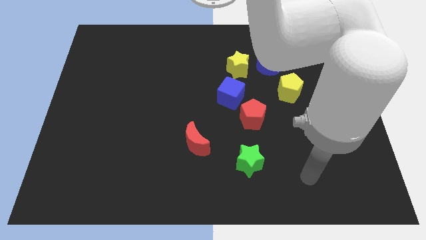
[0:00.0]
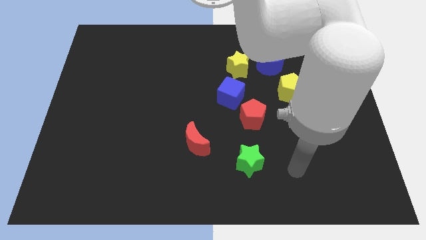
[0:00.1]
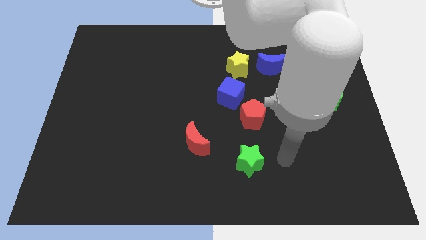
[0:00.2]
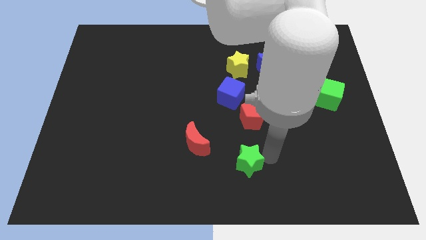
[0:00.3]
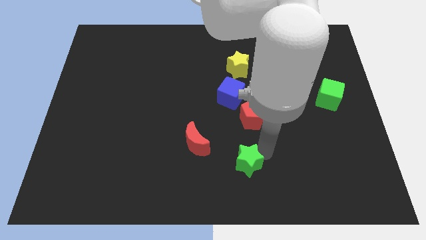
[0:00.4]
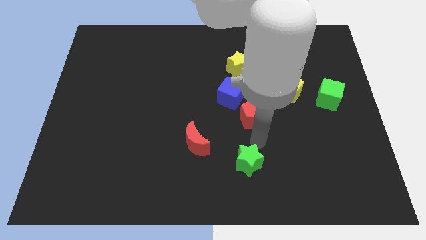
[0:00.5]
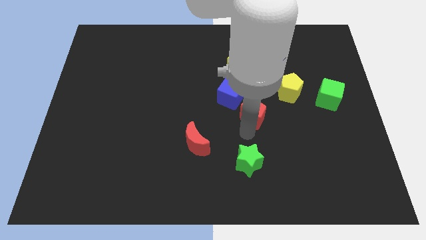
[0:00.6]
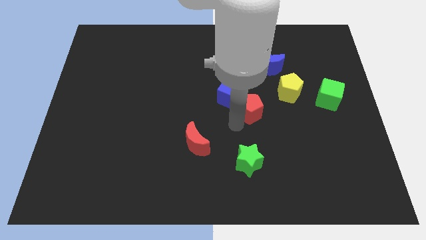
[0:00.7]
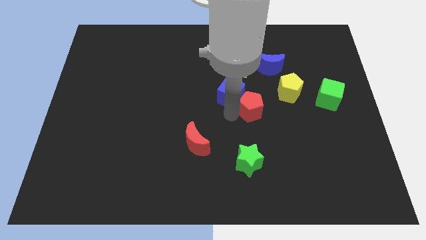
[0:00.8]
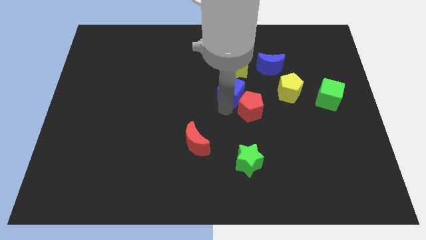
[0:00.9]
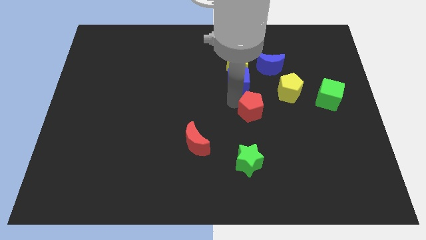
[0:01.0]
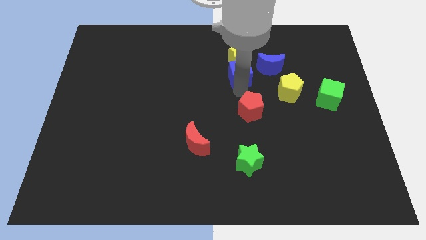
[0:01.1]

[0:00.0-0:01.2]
move the red pentagon away from the blue cube

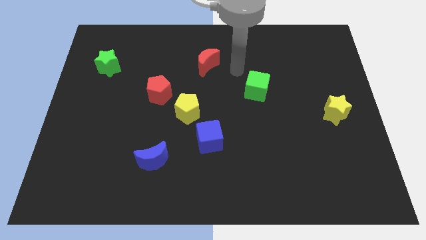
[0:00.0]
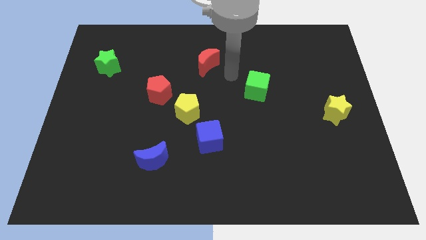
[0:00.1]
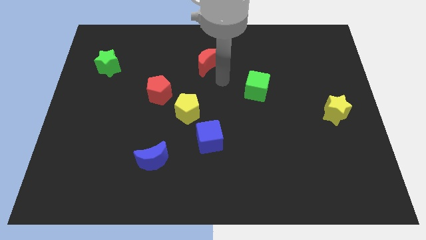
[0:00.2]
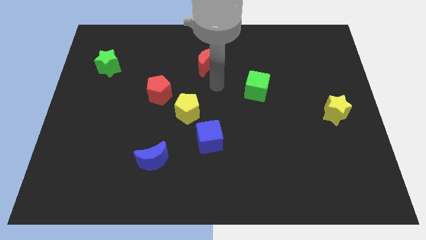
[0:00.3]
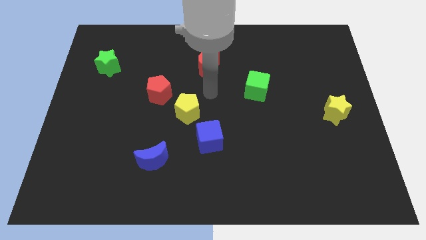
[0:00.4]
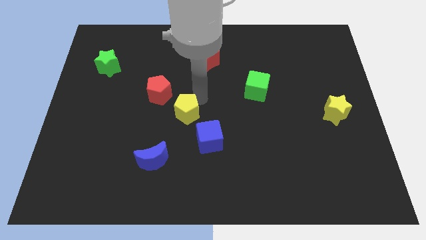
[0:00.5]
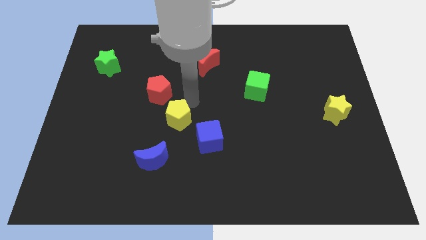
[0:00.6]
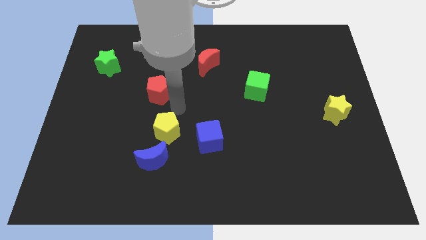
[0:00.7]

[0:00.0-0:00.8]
separate the red pentagon from the yellow pentagon

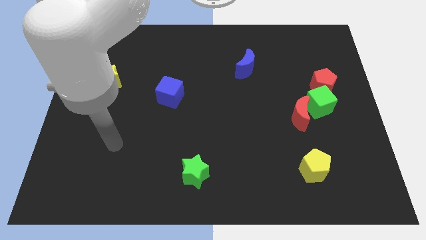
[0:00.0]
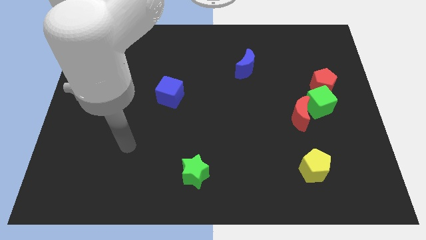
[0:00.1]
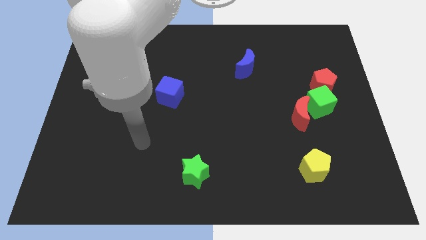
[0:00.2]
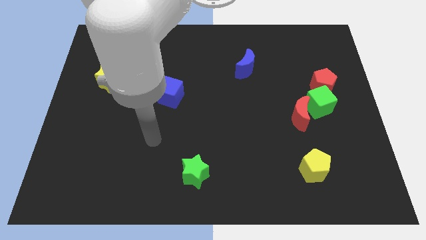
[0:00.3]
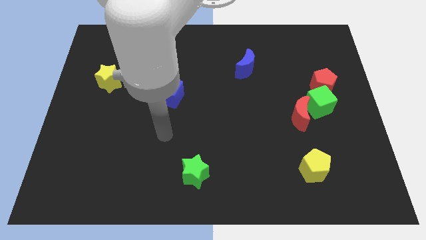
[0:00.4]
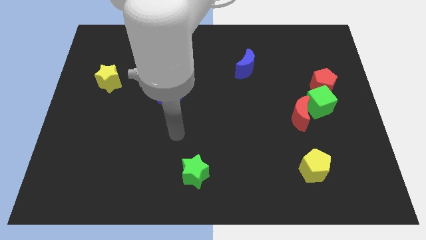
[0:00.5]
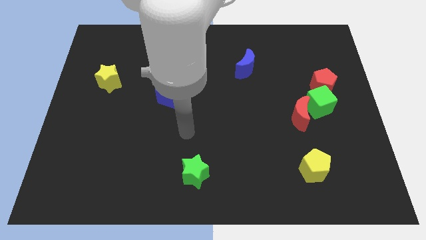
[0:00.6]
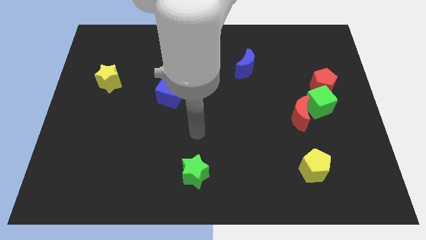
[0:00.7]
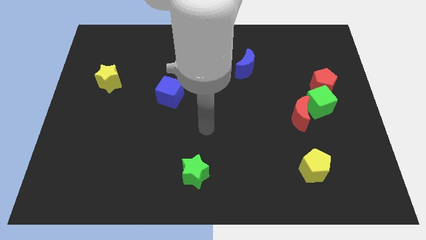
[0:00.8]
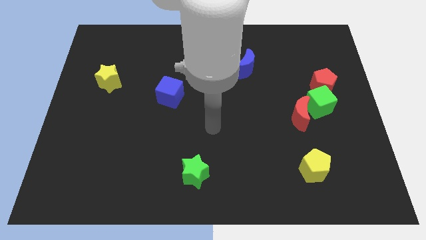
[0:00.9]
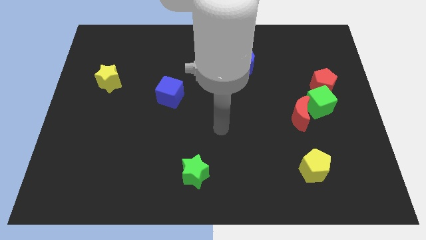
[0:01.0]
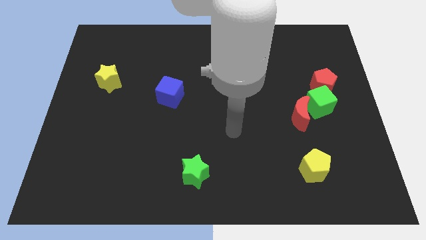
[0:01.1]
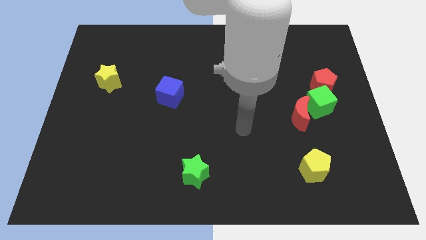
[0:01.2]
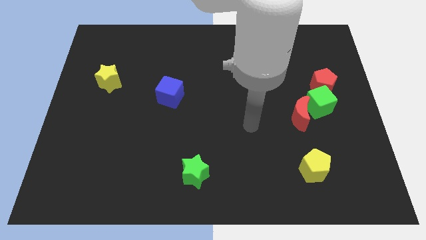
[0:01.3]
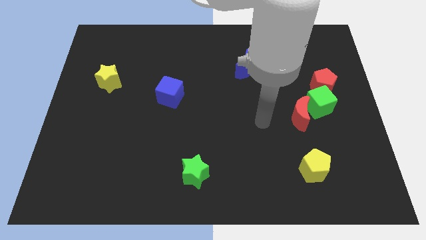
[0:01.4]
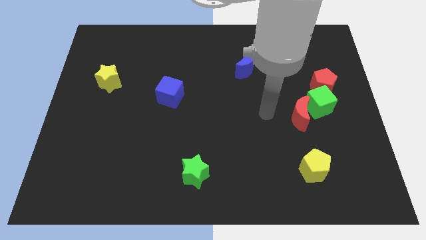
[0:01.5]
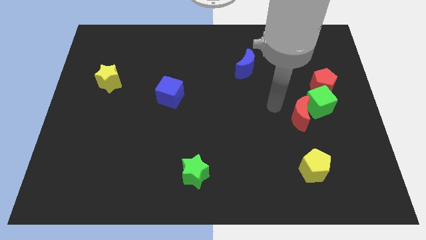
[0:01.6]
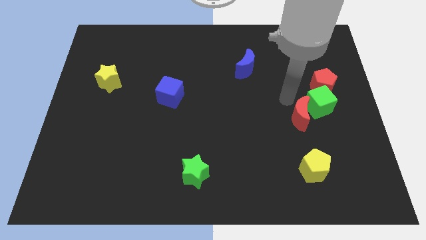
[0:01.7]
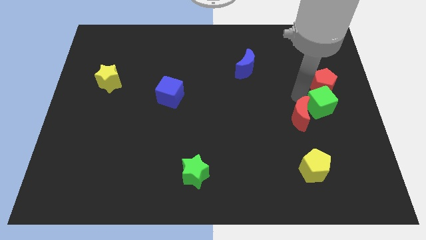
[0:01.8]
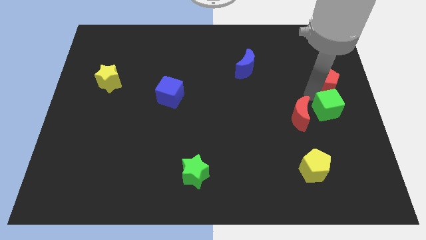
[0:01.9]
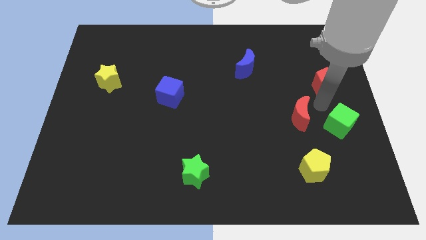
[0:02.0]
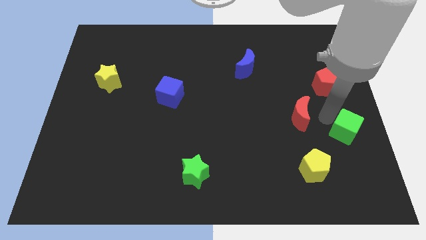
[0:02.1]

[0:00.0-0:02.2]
move the red moon away from the green cube

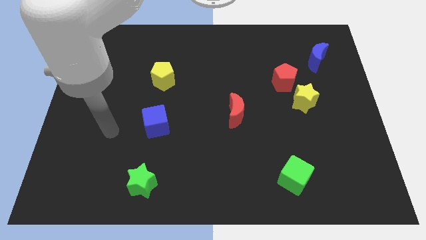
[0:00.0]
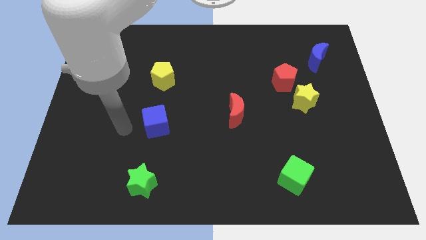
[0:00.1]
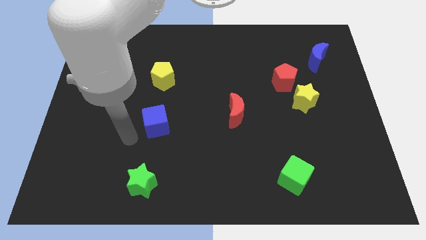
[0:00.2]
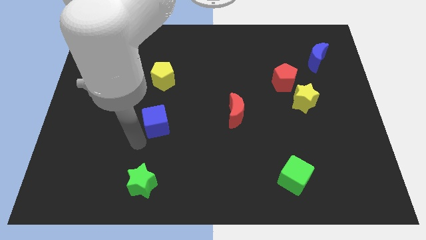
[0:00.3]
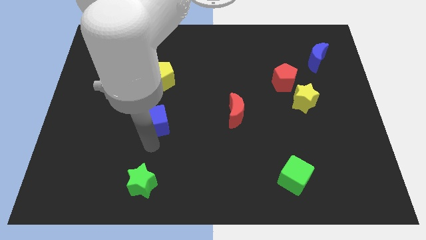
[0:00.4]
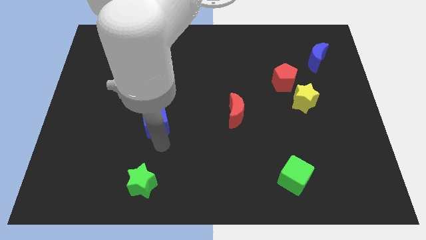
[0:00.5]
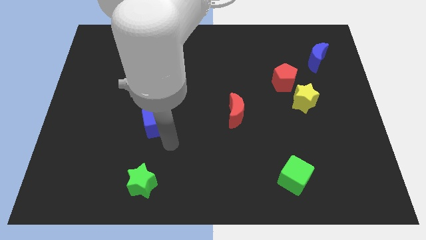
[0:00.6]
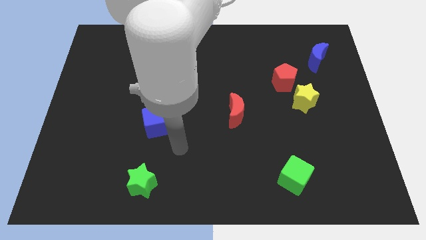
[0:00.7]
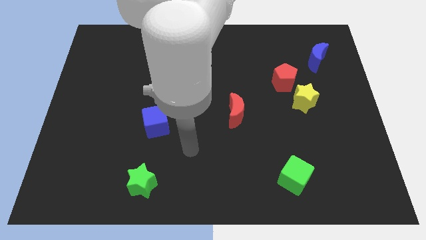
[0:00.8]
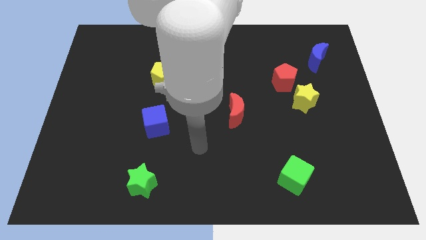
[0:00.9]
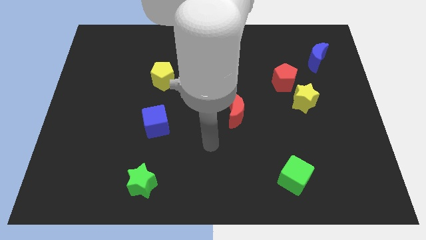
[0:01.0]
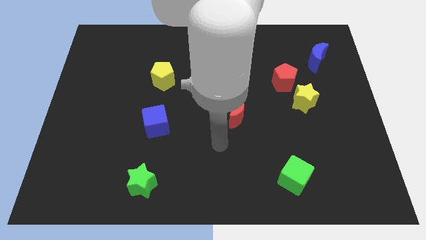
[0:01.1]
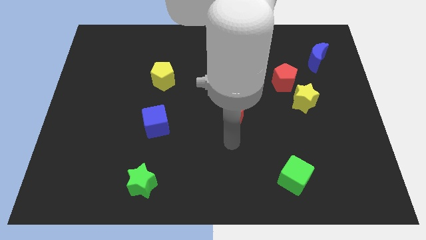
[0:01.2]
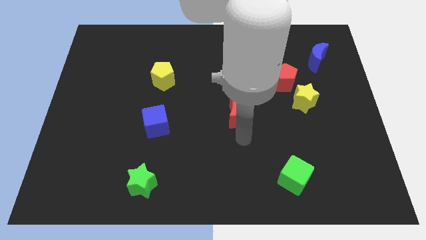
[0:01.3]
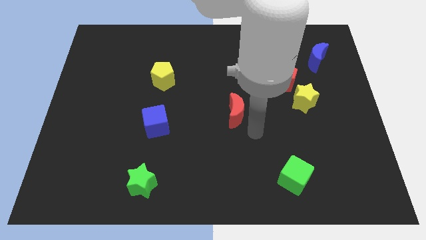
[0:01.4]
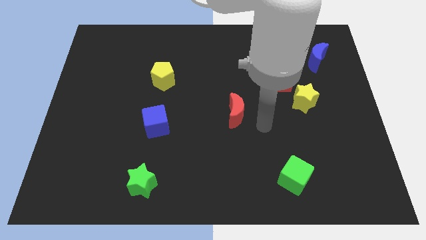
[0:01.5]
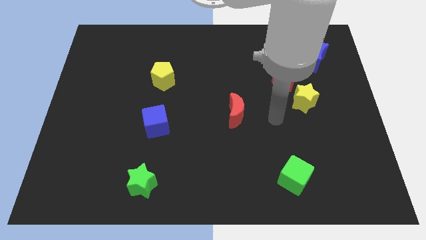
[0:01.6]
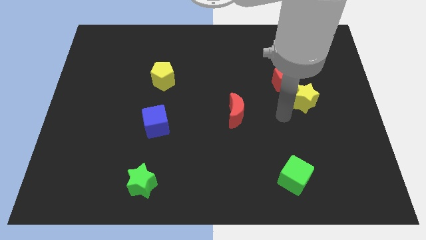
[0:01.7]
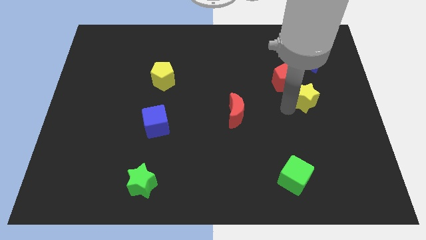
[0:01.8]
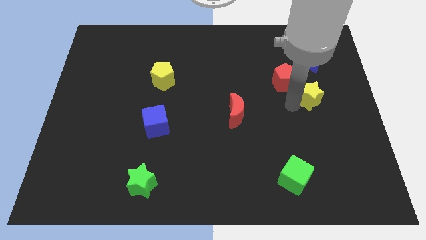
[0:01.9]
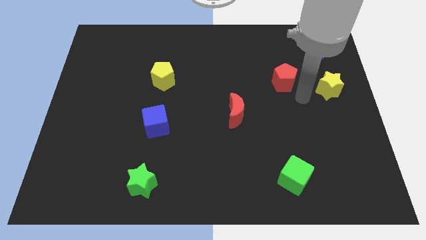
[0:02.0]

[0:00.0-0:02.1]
pull the red pentagon apart from the yellow star

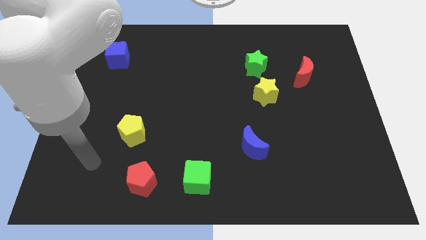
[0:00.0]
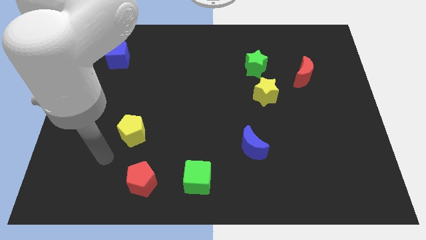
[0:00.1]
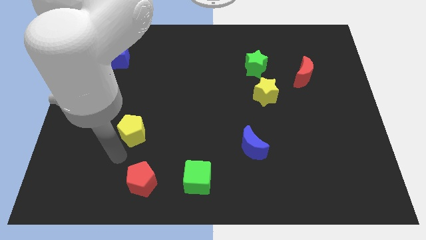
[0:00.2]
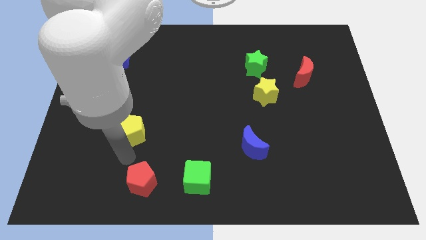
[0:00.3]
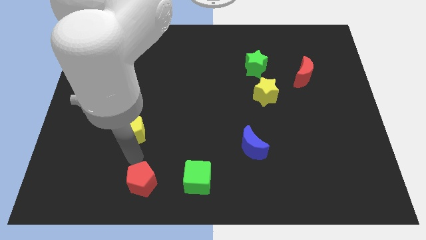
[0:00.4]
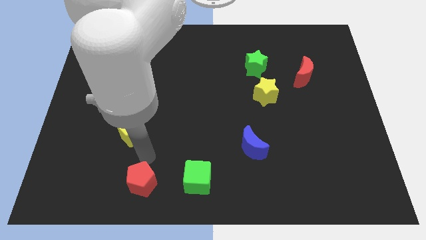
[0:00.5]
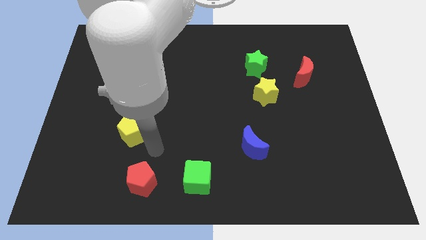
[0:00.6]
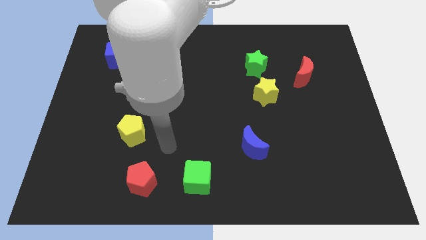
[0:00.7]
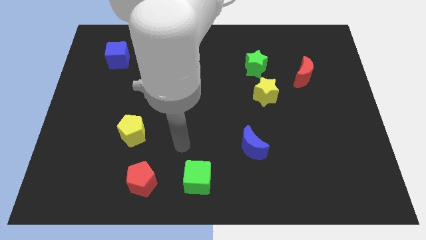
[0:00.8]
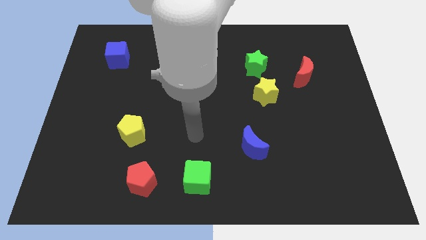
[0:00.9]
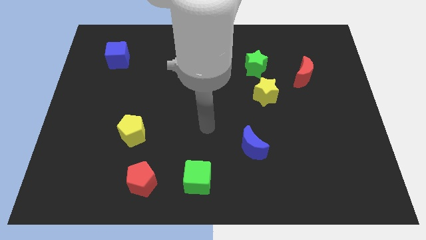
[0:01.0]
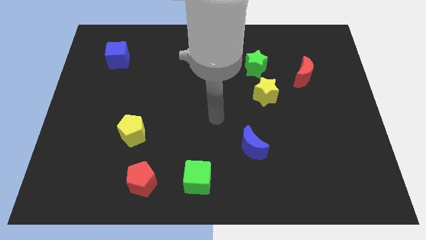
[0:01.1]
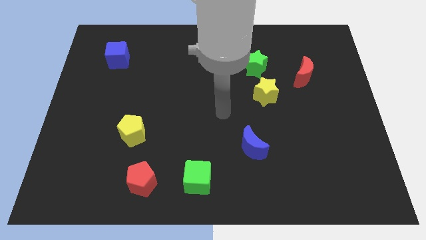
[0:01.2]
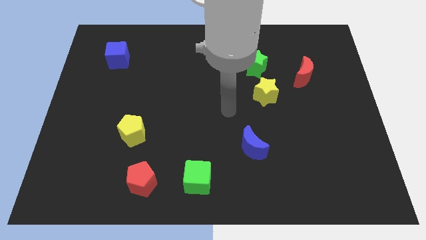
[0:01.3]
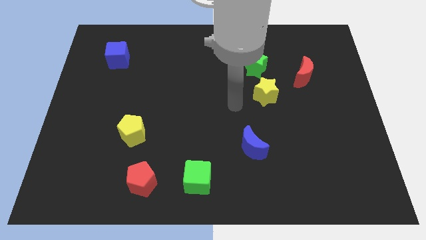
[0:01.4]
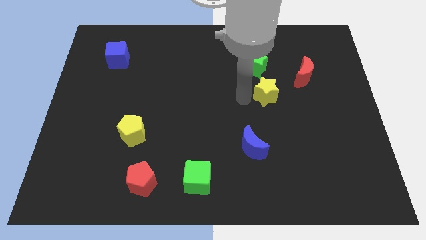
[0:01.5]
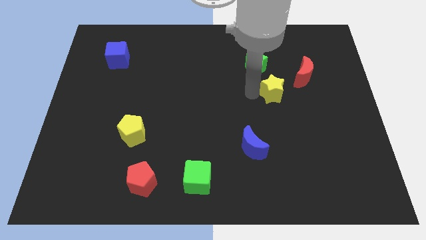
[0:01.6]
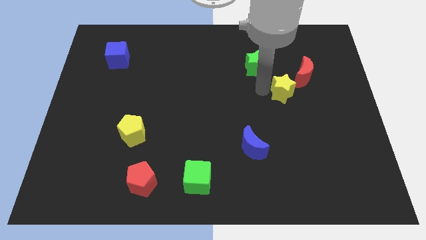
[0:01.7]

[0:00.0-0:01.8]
move the green star away from the yellow star

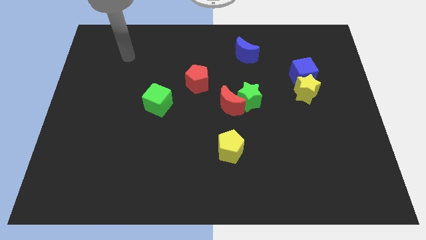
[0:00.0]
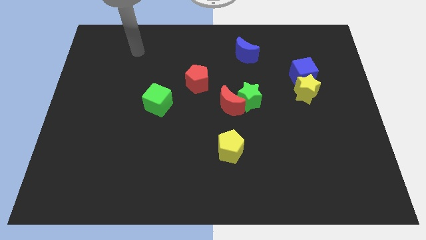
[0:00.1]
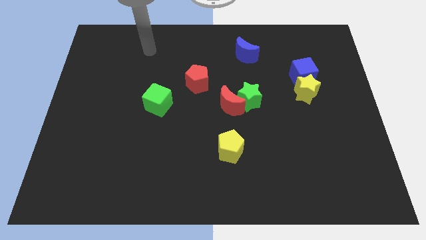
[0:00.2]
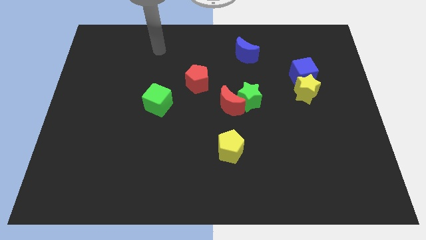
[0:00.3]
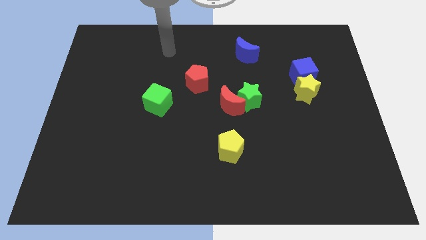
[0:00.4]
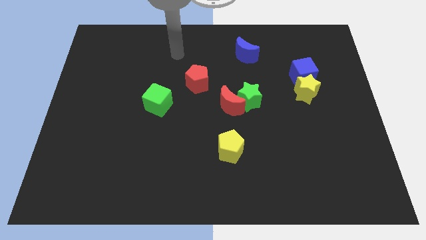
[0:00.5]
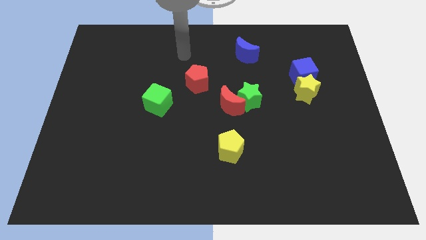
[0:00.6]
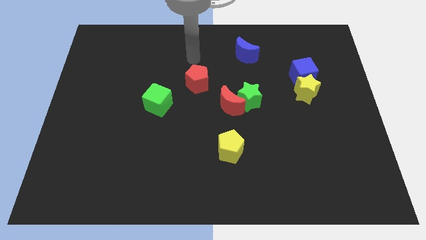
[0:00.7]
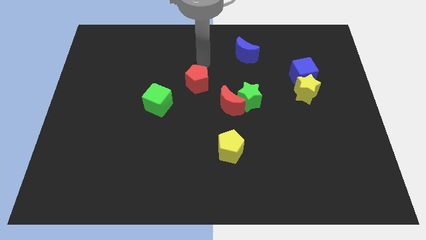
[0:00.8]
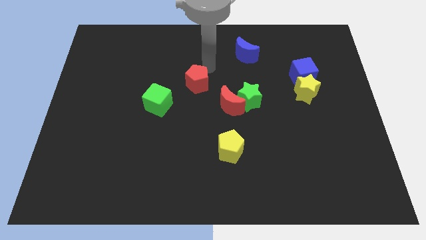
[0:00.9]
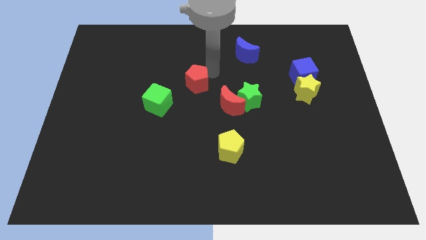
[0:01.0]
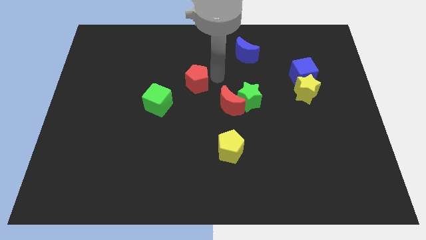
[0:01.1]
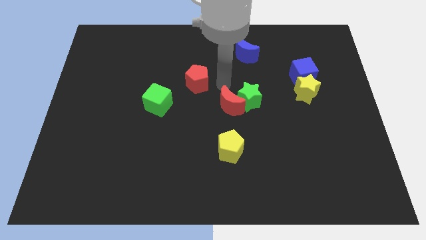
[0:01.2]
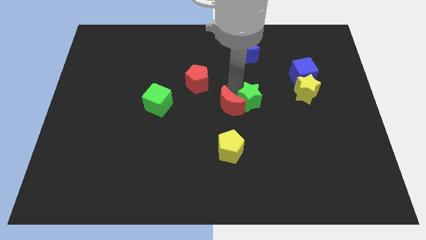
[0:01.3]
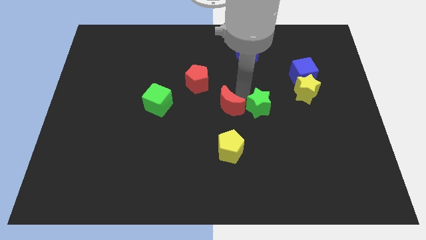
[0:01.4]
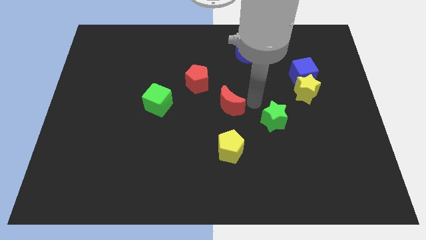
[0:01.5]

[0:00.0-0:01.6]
move the red moon away from the green star
